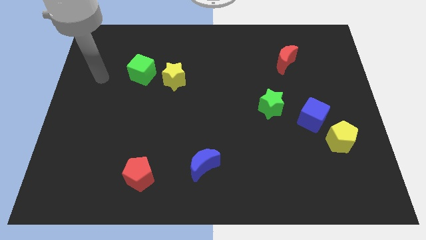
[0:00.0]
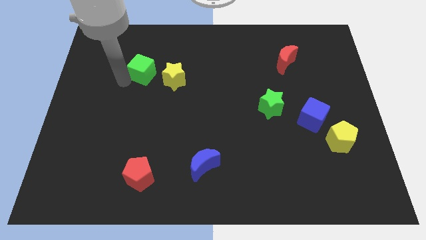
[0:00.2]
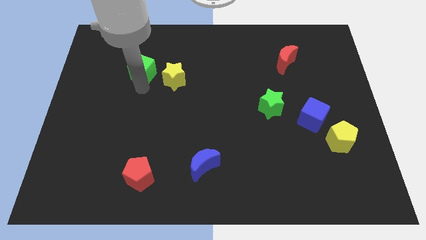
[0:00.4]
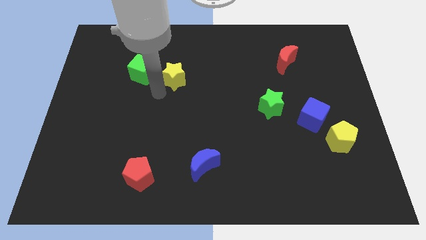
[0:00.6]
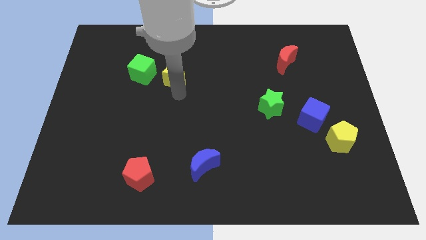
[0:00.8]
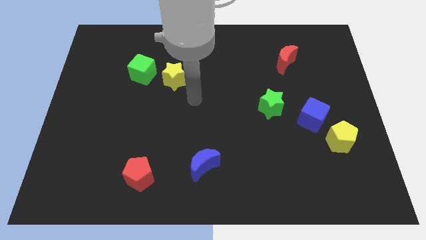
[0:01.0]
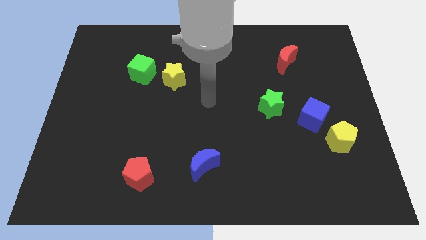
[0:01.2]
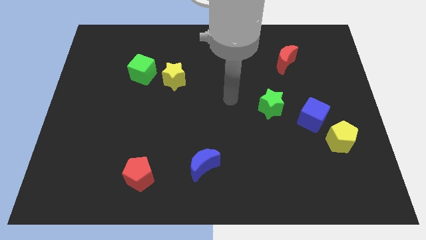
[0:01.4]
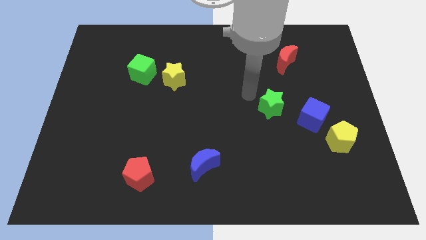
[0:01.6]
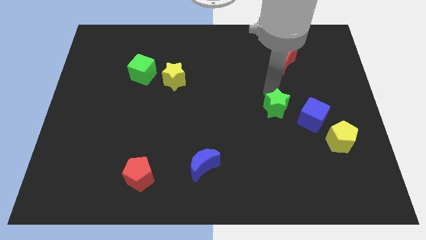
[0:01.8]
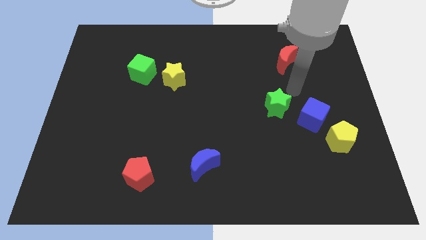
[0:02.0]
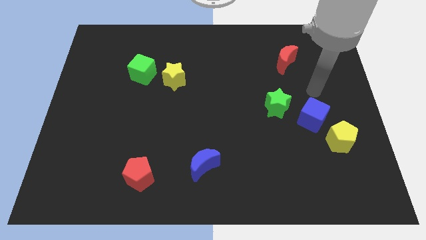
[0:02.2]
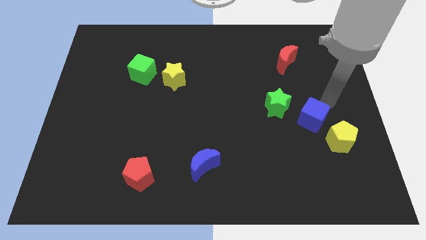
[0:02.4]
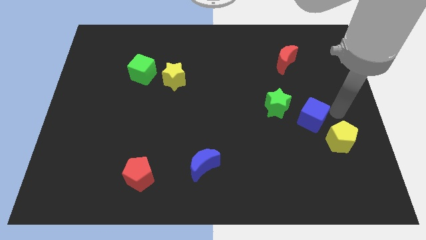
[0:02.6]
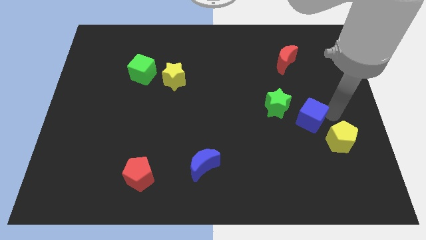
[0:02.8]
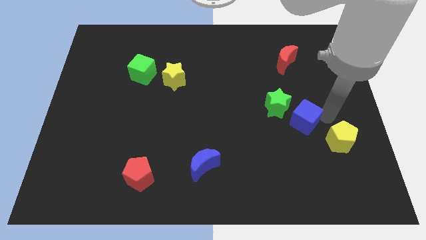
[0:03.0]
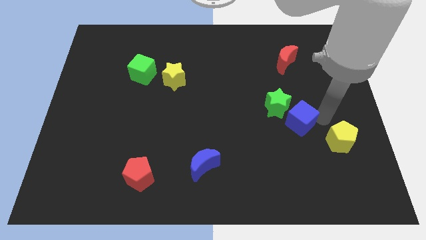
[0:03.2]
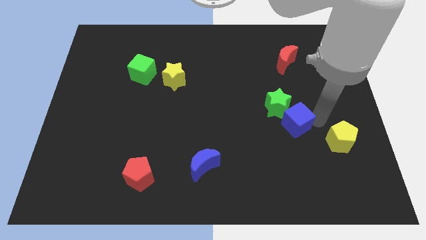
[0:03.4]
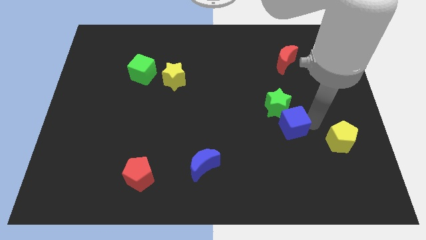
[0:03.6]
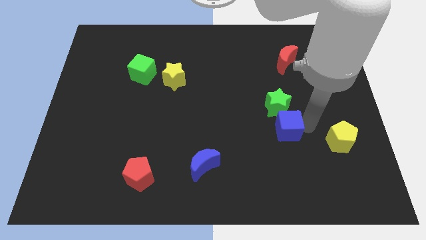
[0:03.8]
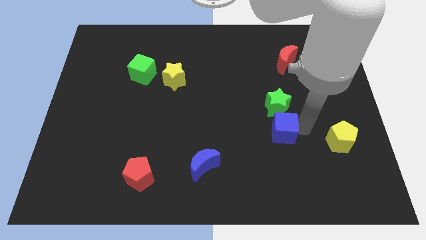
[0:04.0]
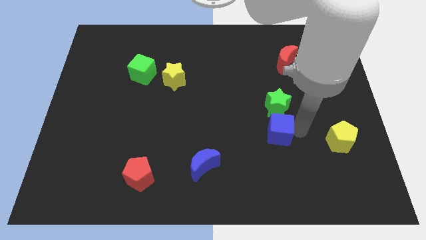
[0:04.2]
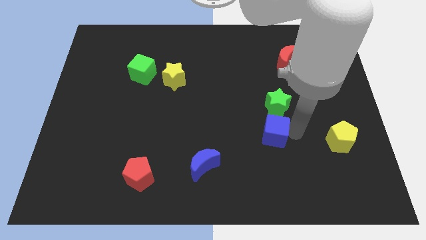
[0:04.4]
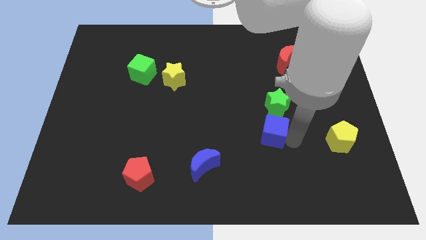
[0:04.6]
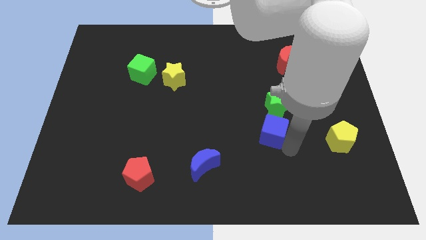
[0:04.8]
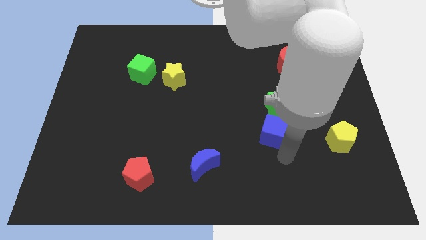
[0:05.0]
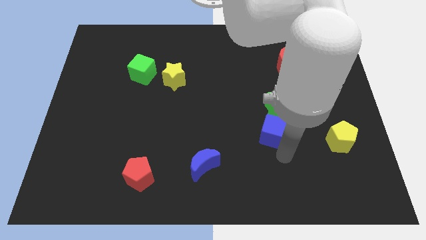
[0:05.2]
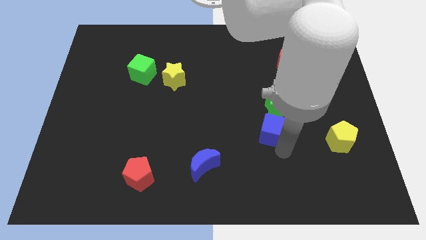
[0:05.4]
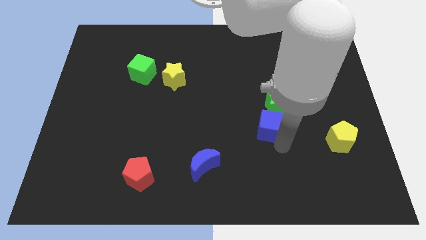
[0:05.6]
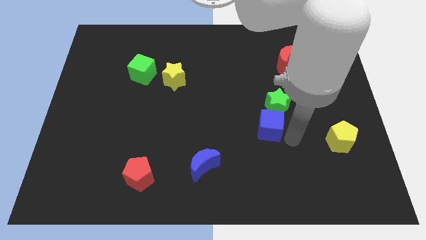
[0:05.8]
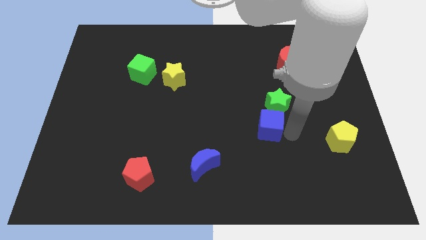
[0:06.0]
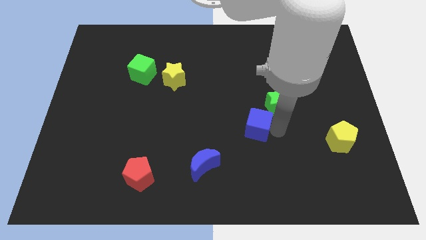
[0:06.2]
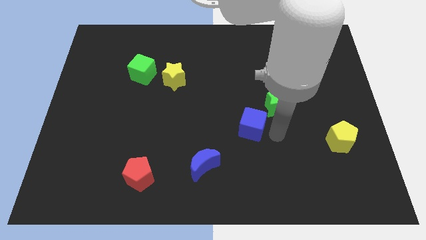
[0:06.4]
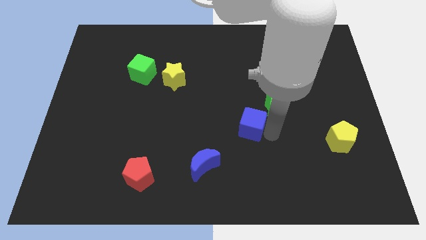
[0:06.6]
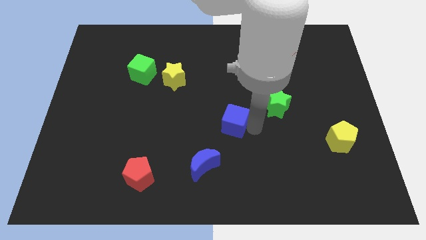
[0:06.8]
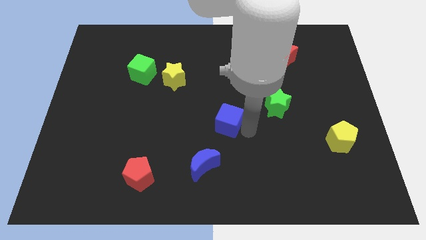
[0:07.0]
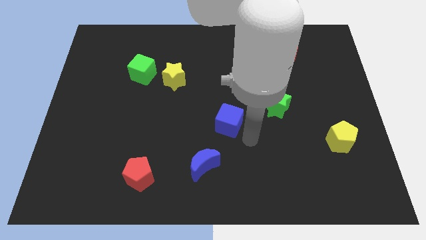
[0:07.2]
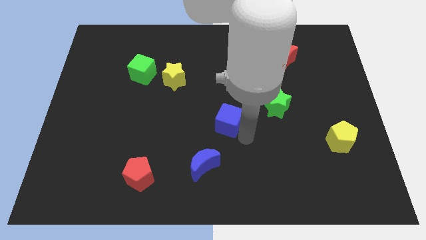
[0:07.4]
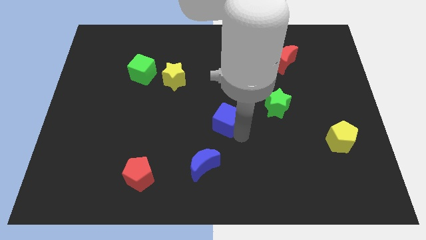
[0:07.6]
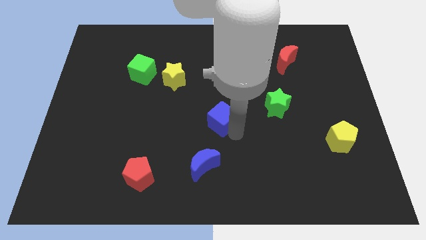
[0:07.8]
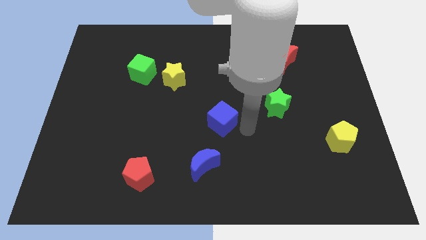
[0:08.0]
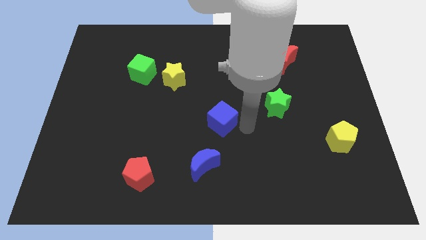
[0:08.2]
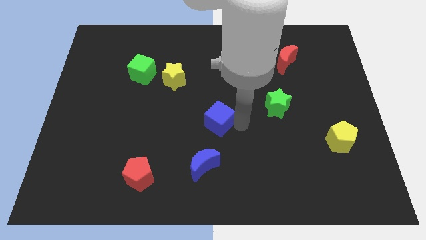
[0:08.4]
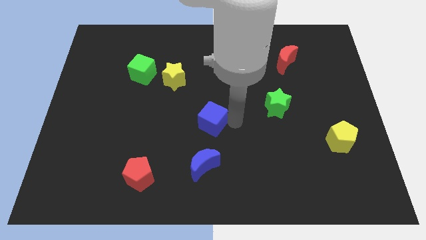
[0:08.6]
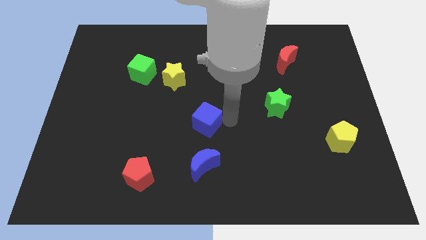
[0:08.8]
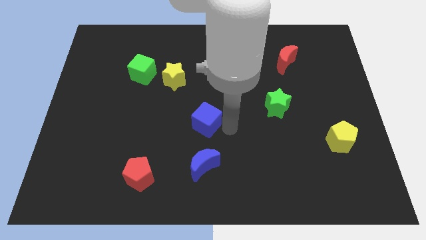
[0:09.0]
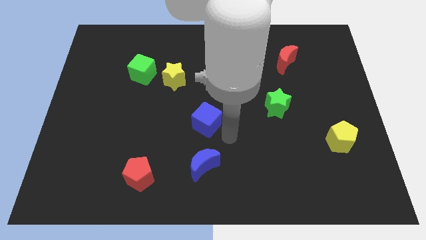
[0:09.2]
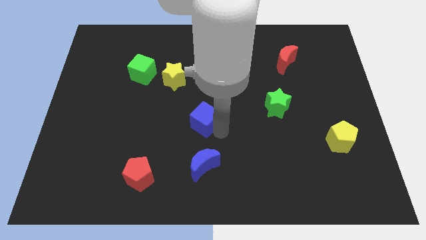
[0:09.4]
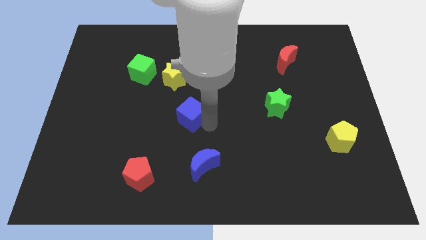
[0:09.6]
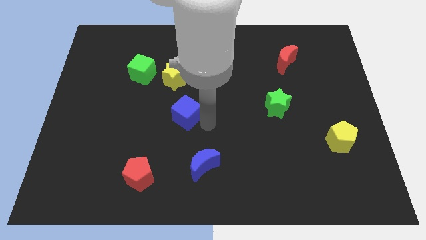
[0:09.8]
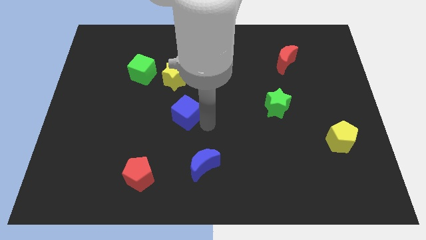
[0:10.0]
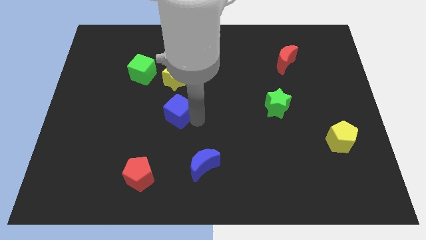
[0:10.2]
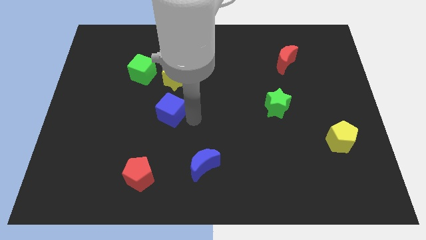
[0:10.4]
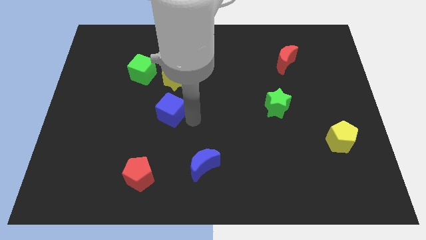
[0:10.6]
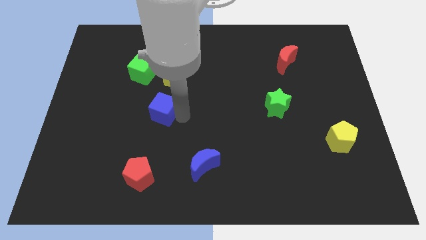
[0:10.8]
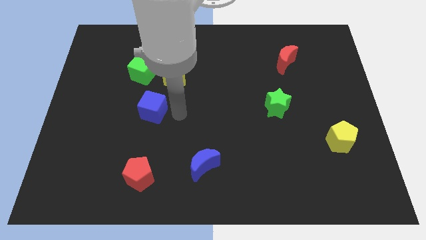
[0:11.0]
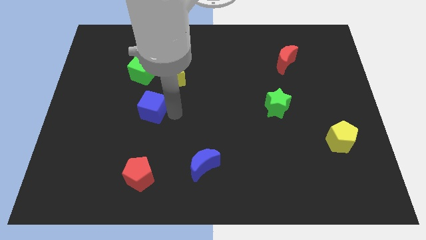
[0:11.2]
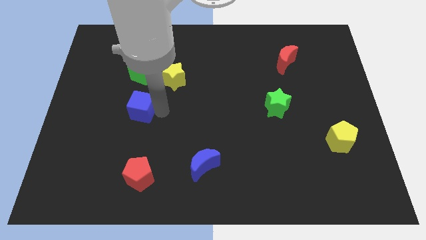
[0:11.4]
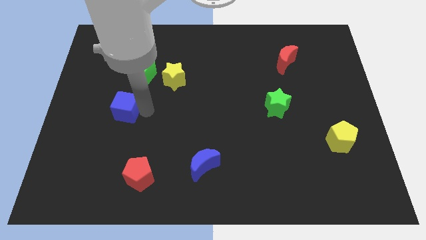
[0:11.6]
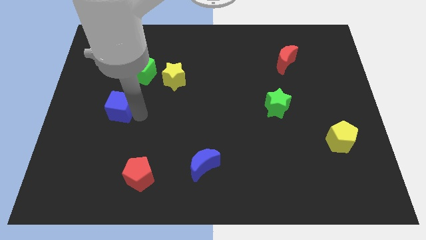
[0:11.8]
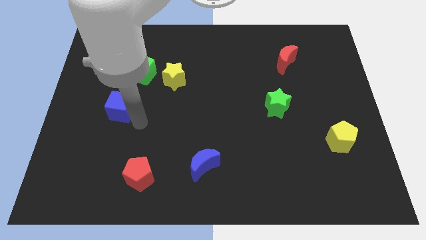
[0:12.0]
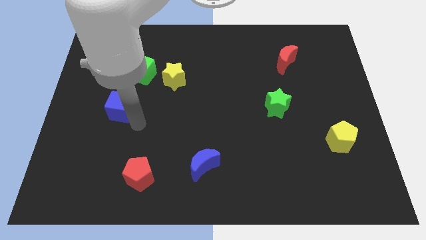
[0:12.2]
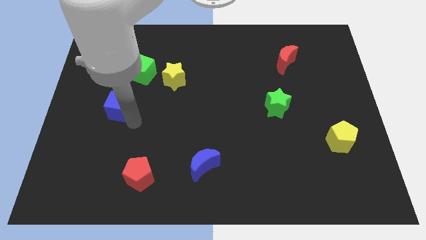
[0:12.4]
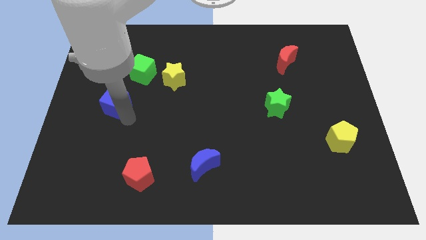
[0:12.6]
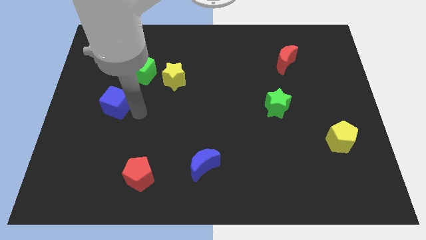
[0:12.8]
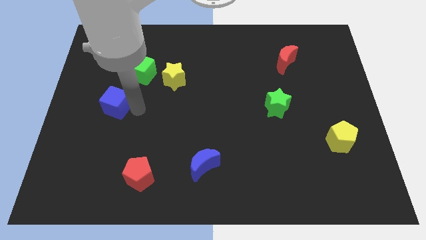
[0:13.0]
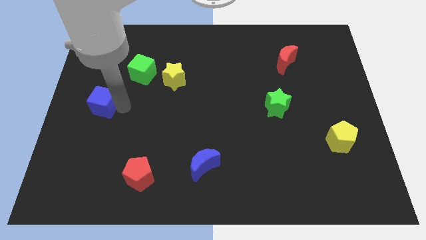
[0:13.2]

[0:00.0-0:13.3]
put the blue cube to the left side of the board
